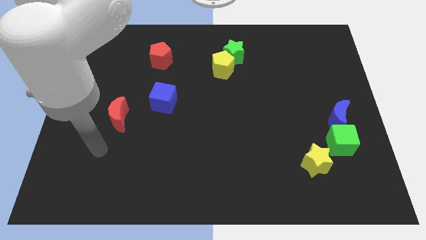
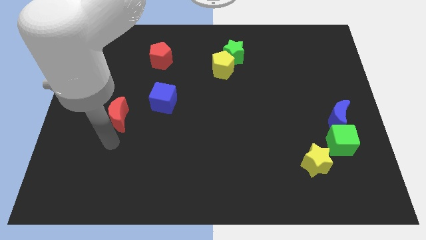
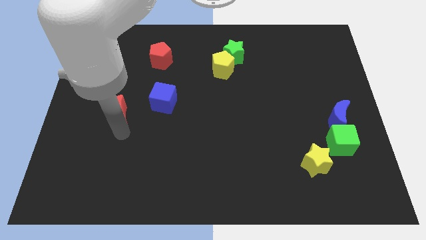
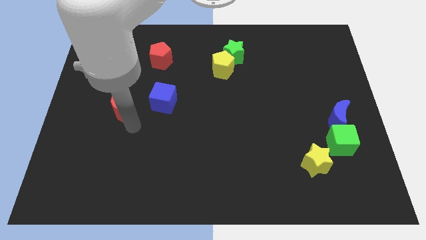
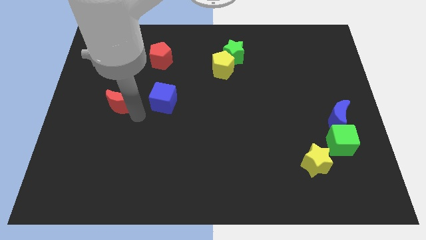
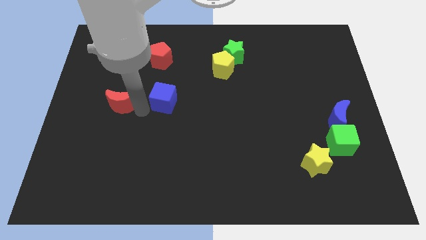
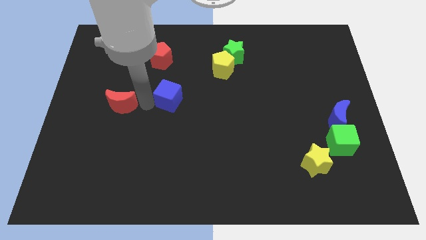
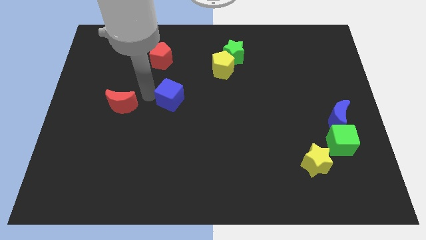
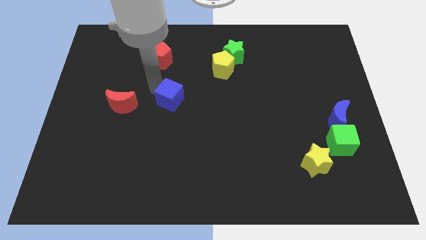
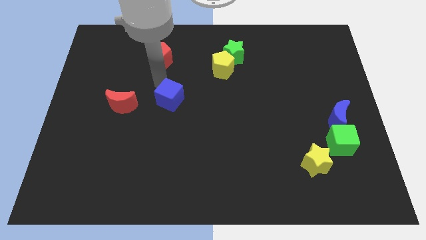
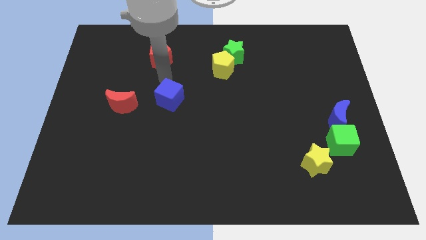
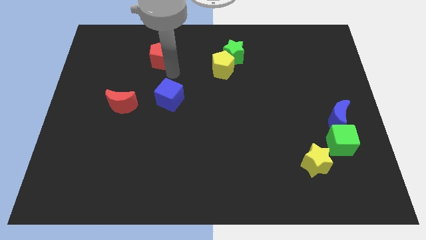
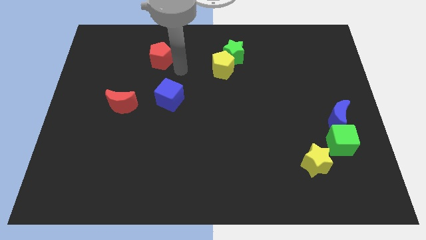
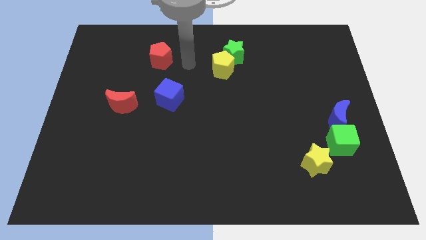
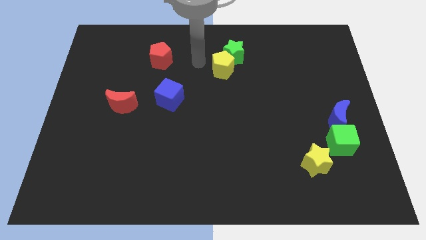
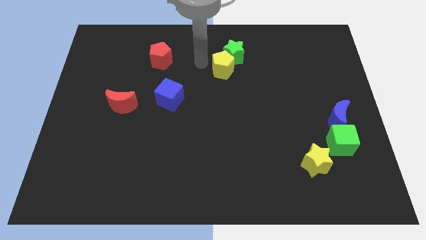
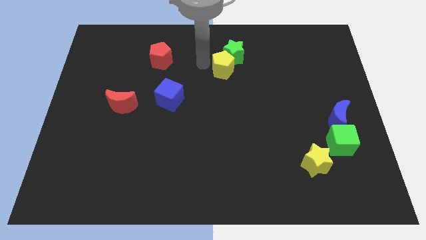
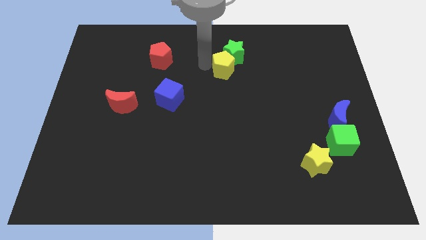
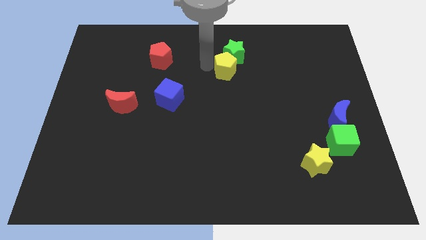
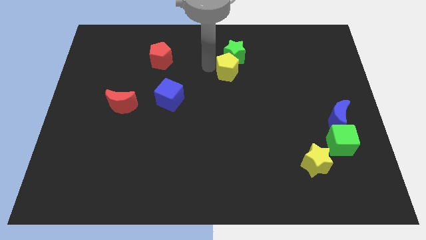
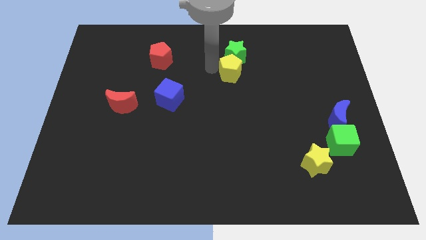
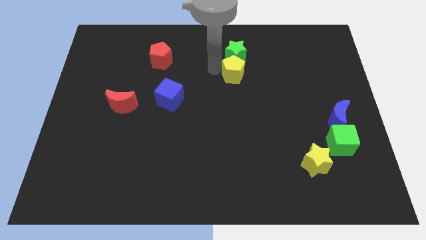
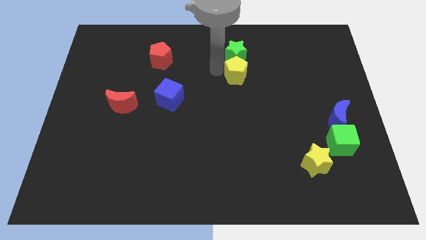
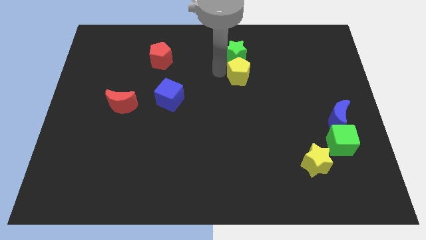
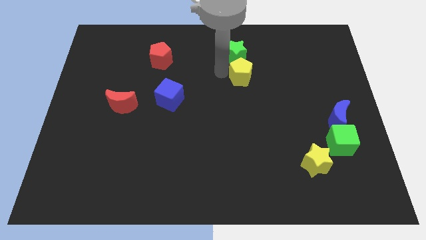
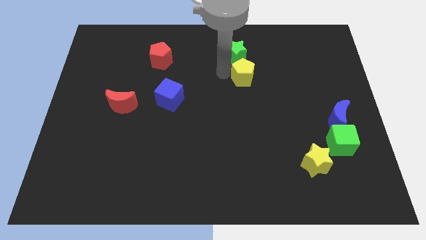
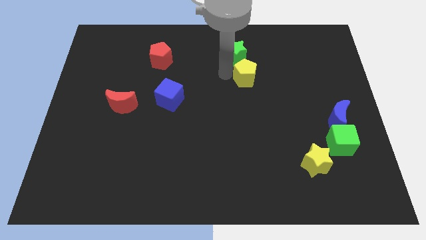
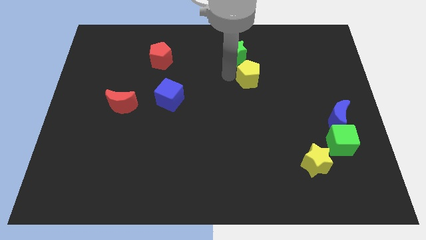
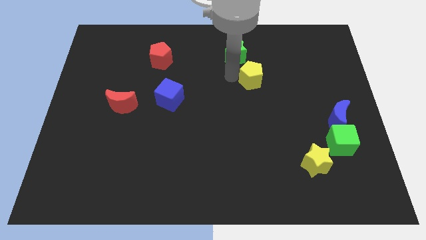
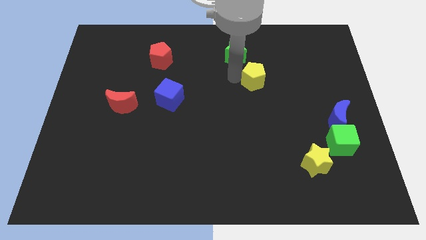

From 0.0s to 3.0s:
slide the yellow pentagon to the right a little

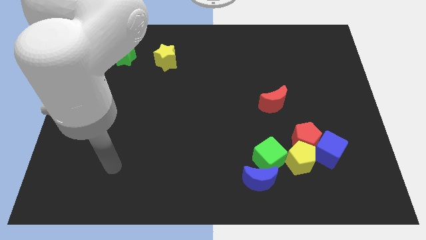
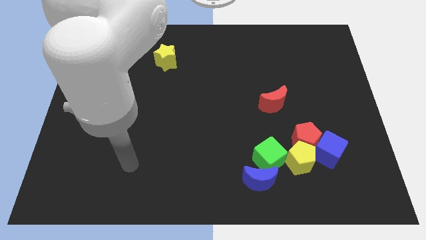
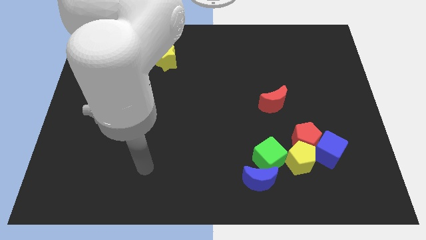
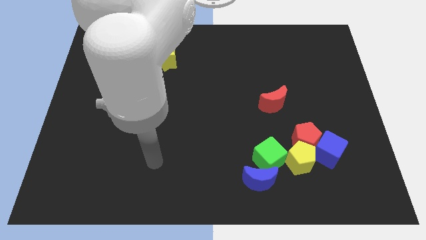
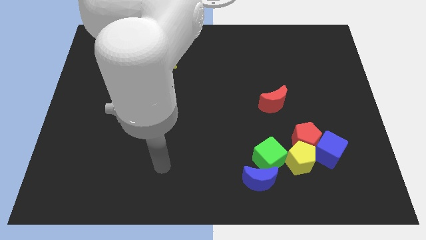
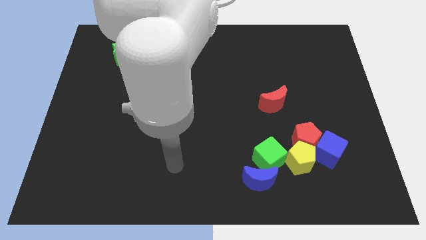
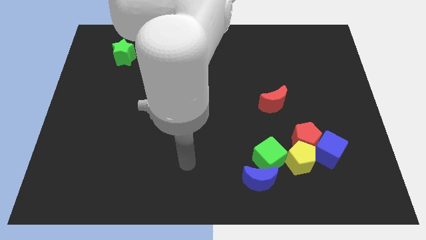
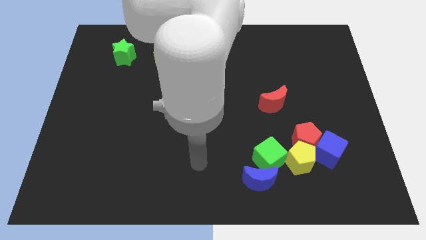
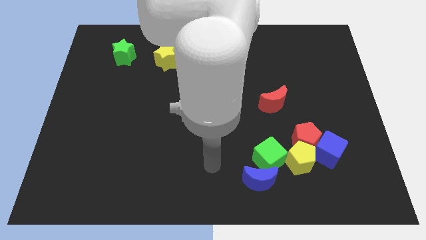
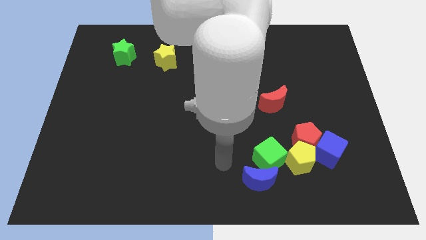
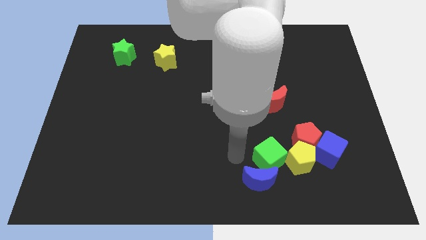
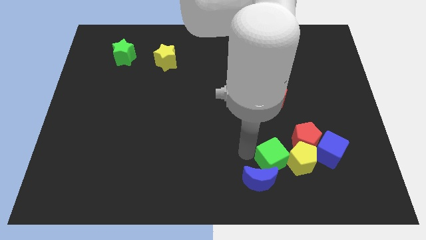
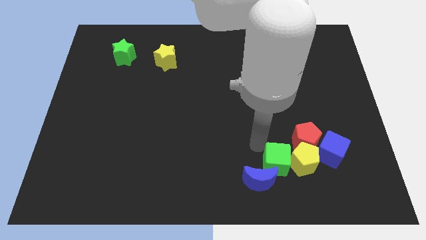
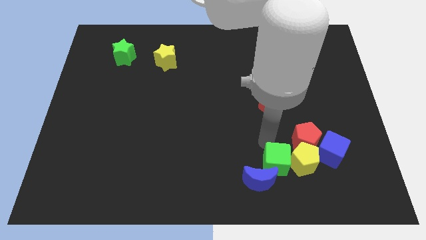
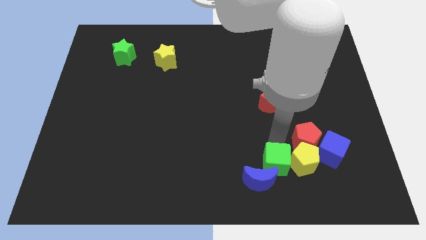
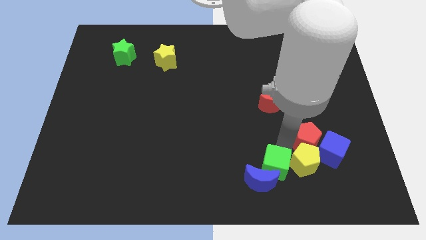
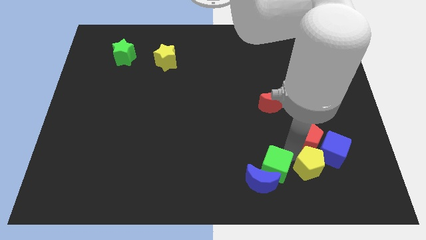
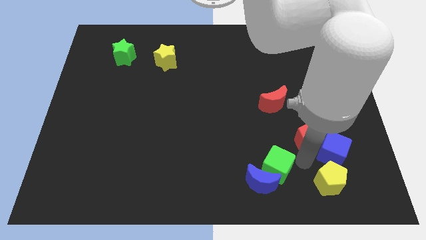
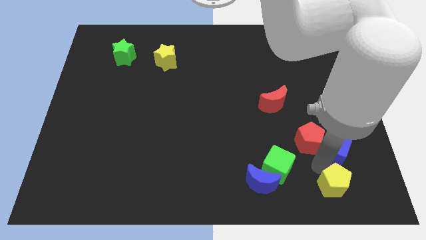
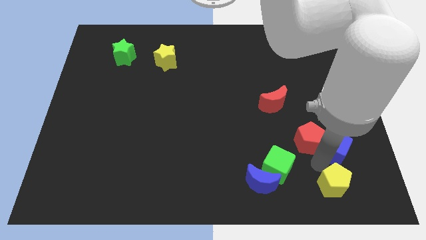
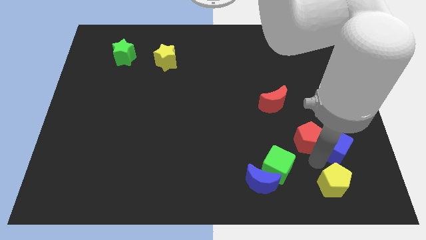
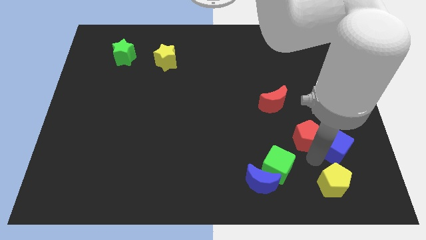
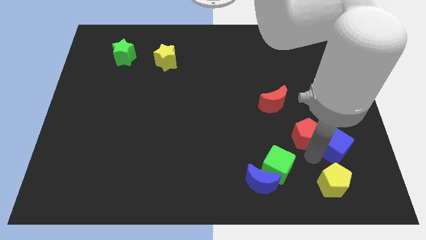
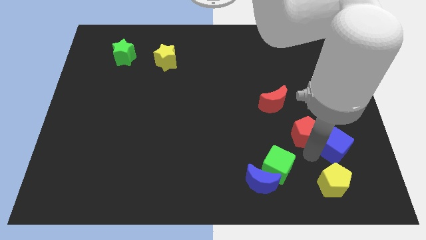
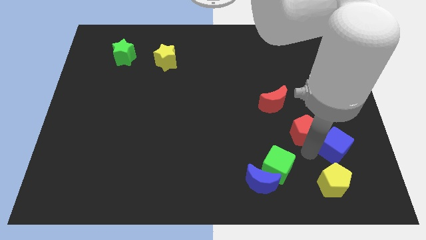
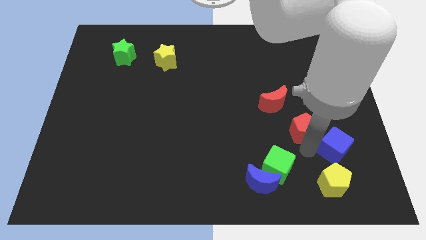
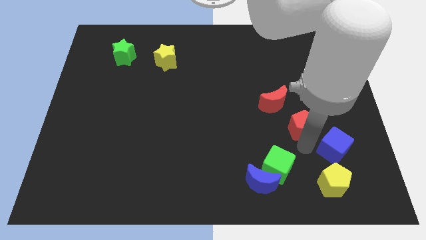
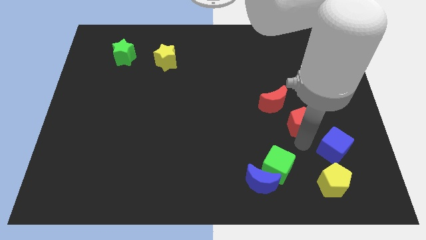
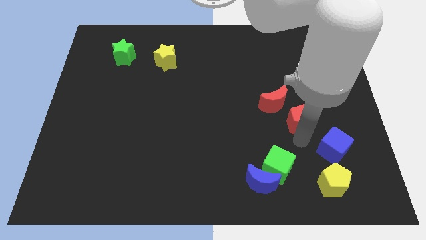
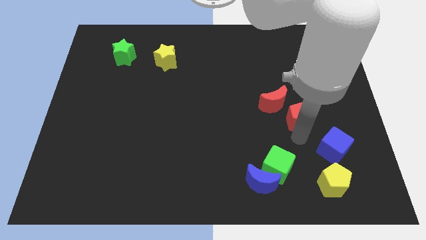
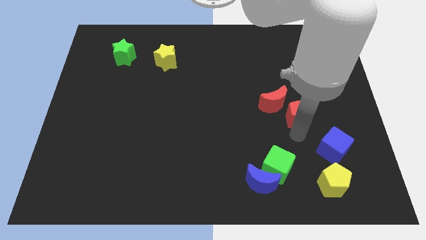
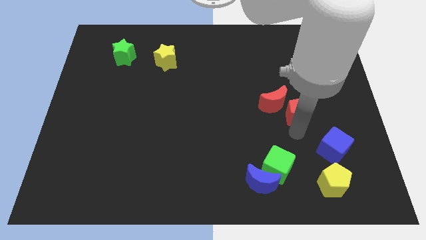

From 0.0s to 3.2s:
push the red pentagon a little upwards

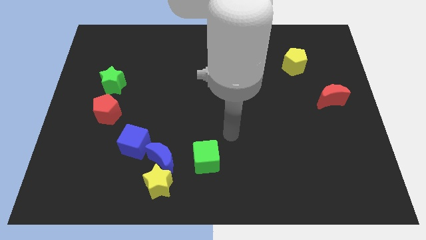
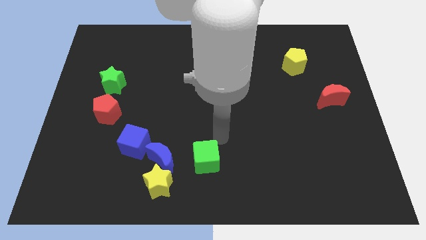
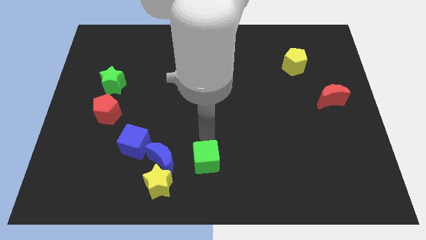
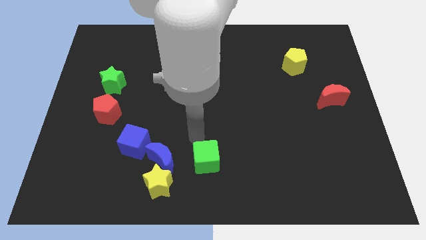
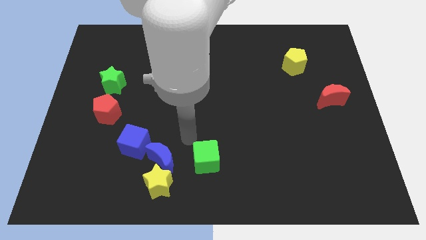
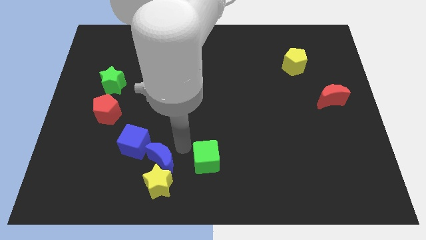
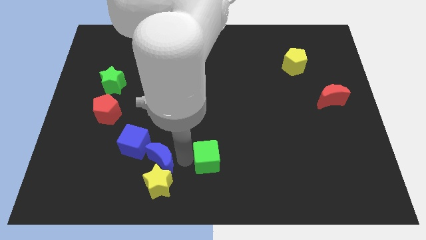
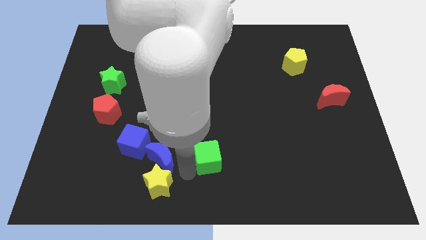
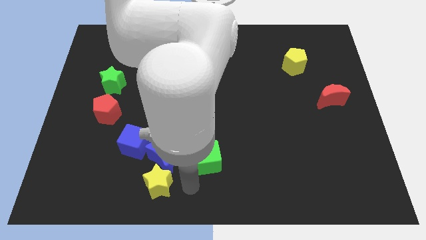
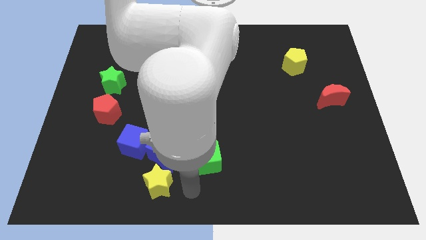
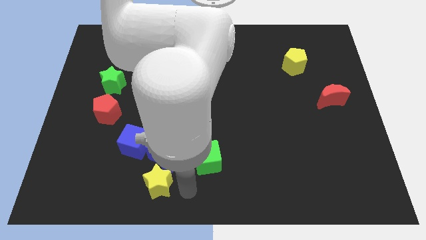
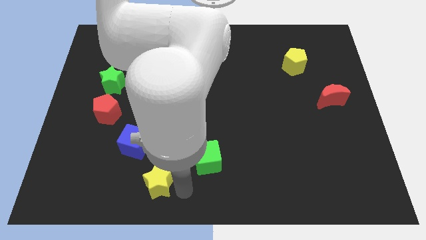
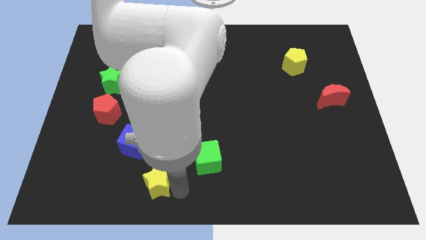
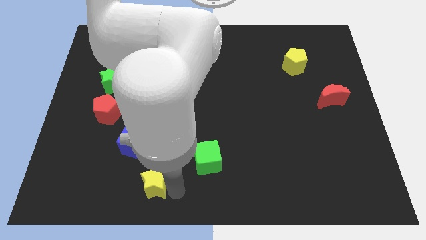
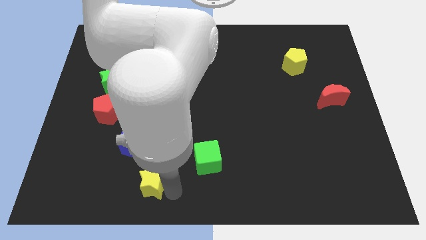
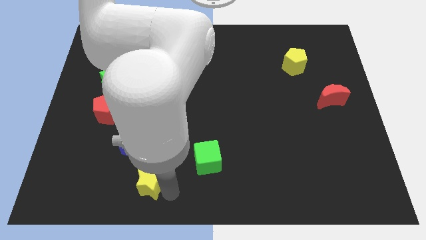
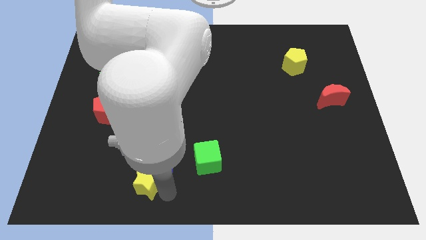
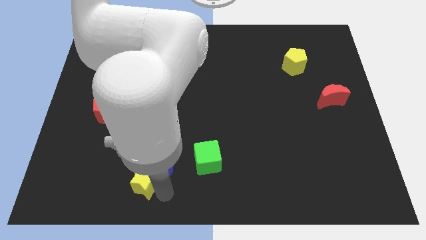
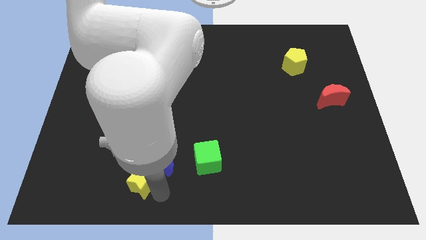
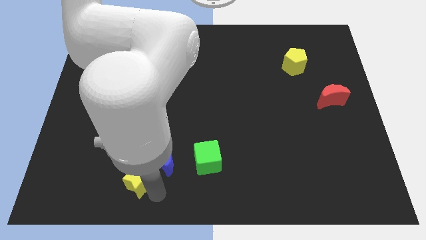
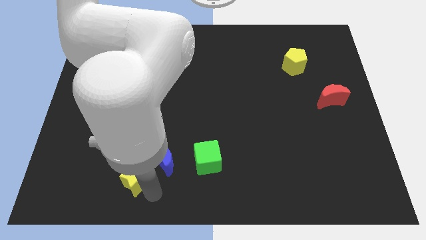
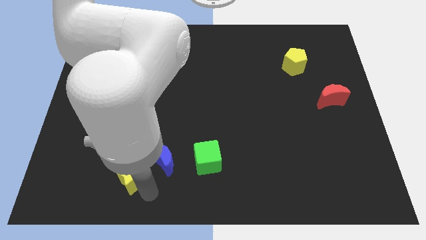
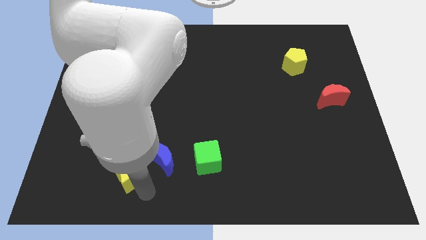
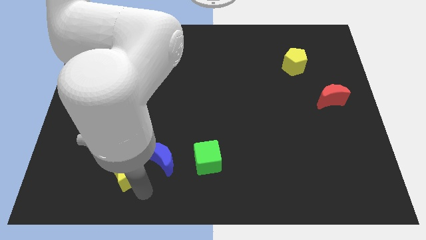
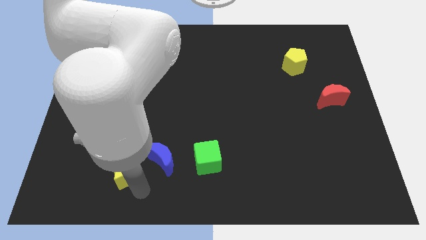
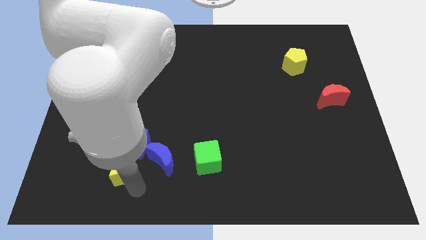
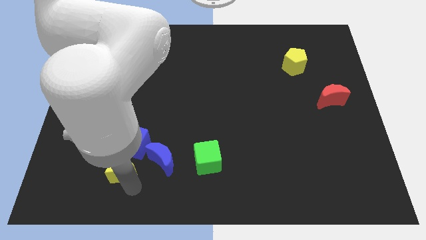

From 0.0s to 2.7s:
slightly push the yellow star up and left
